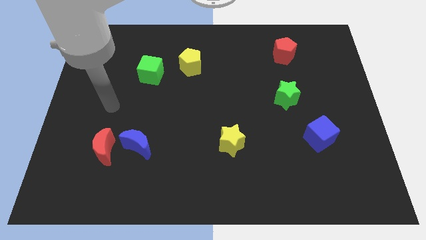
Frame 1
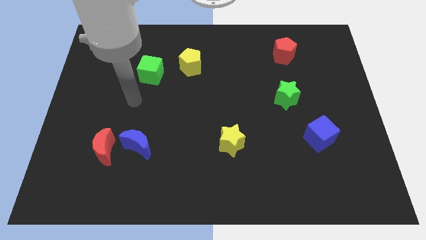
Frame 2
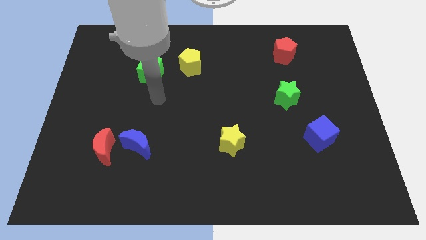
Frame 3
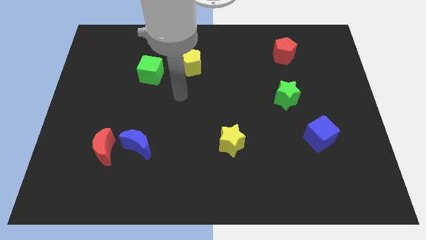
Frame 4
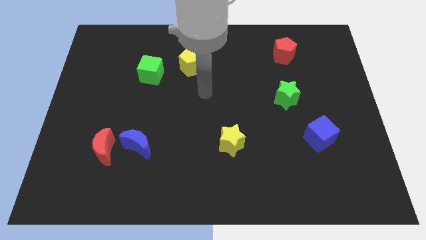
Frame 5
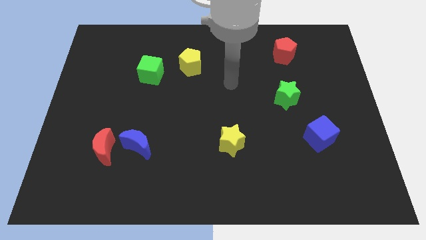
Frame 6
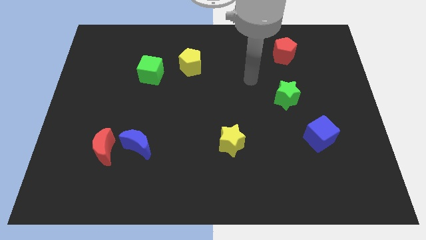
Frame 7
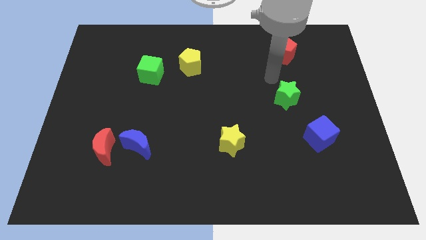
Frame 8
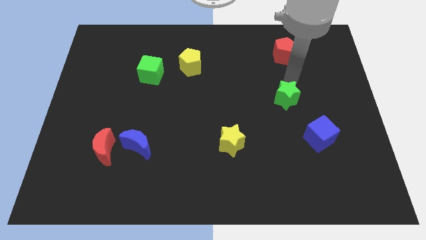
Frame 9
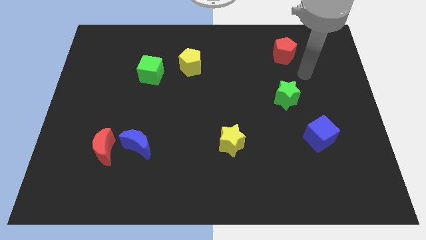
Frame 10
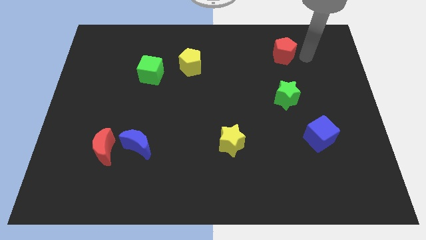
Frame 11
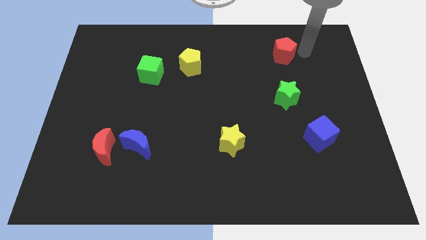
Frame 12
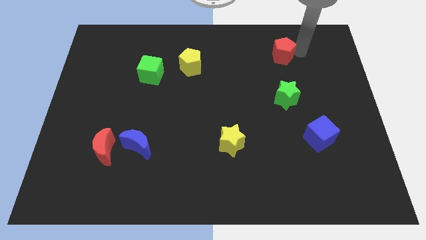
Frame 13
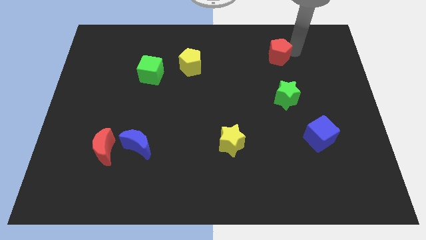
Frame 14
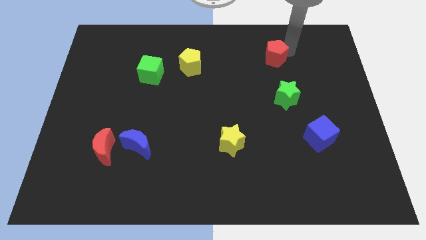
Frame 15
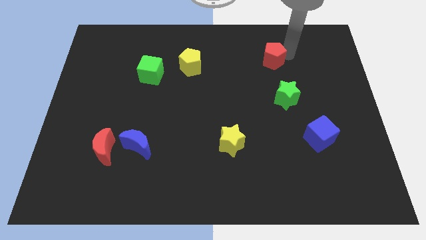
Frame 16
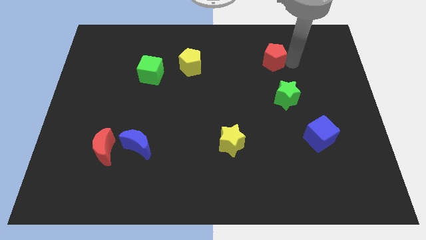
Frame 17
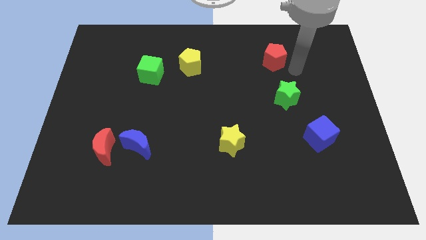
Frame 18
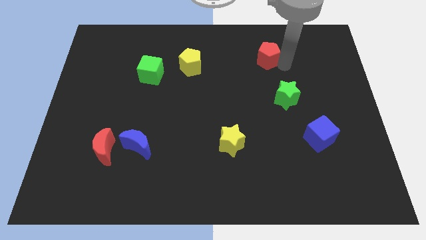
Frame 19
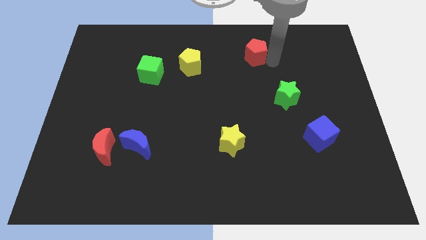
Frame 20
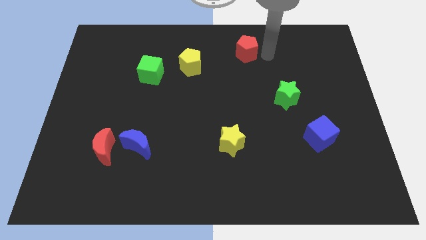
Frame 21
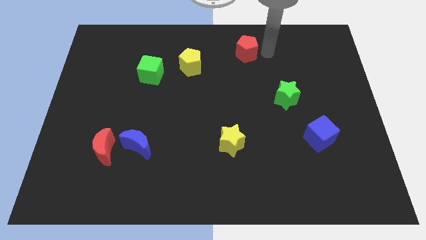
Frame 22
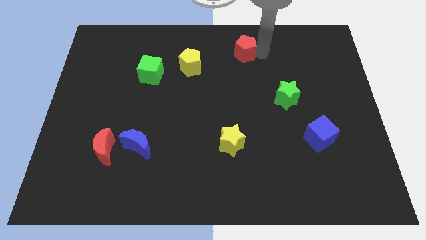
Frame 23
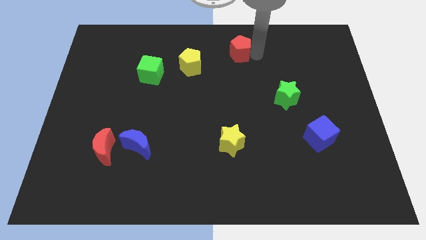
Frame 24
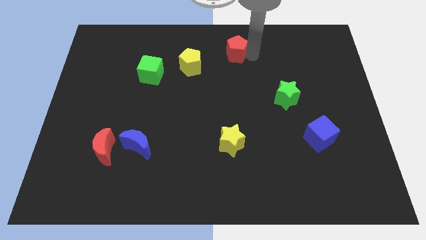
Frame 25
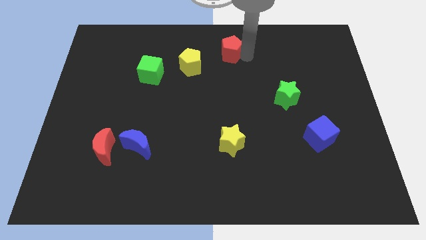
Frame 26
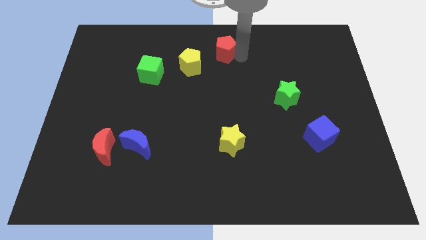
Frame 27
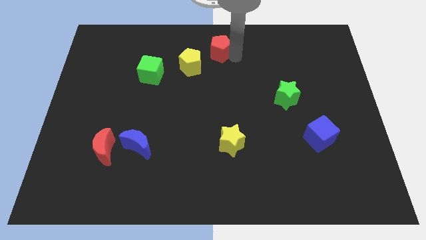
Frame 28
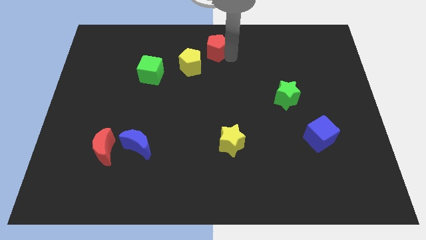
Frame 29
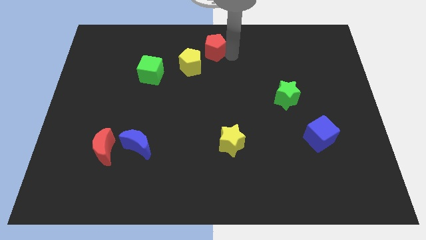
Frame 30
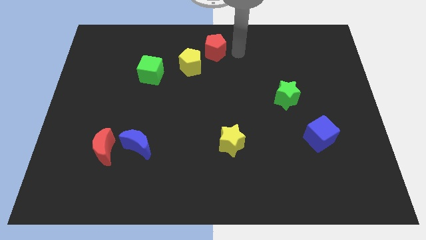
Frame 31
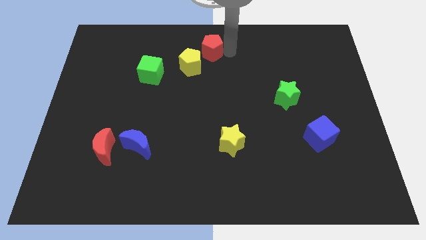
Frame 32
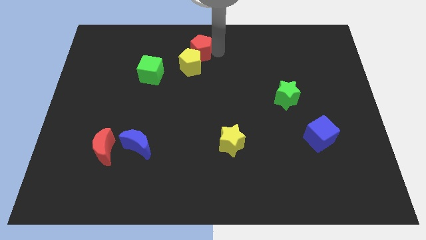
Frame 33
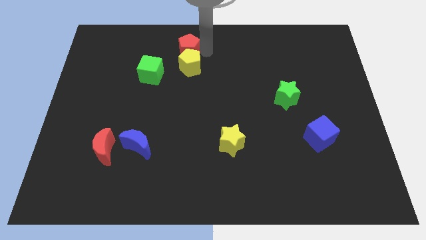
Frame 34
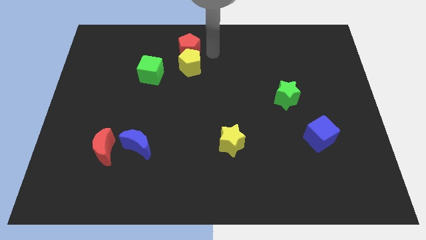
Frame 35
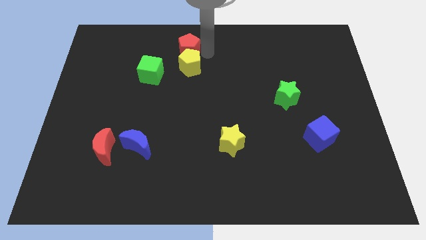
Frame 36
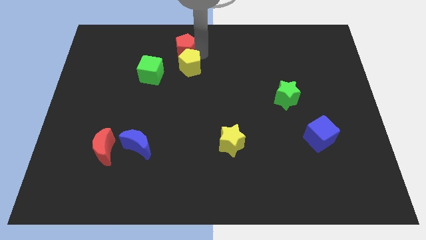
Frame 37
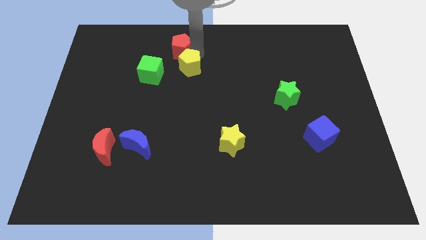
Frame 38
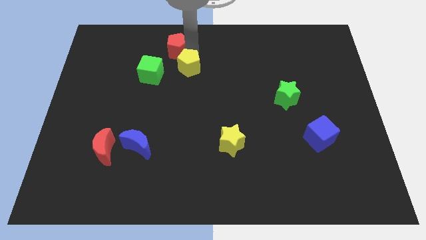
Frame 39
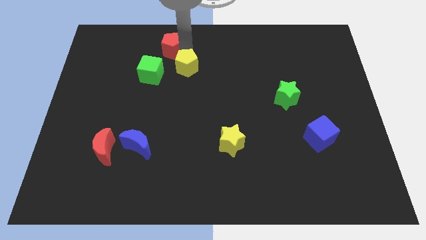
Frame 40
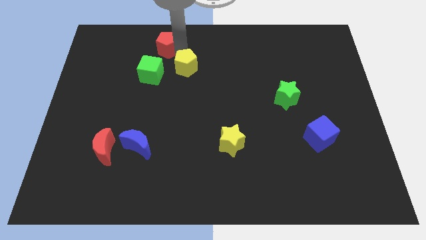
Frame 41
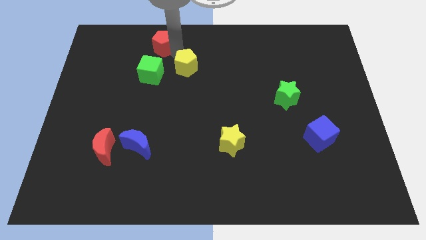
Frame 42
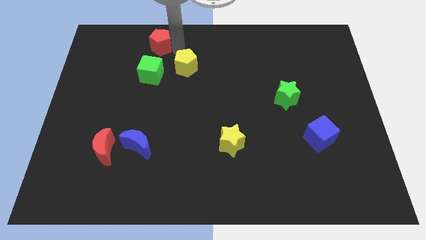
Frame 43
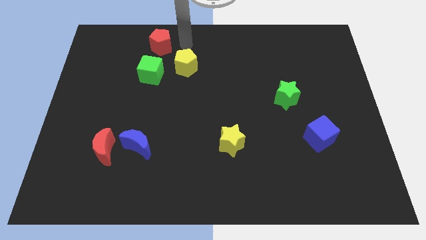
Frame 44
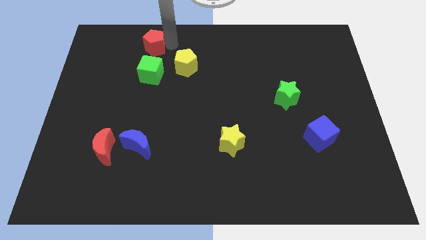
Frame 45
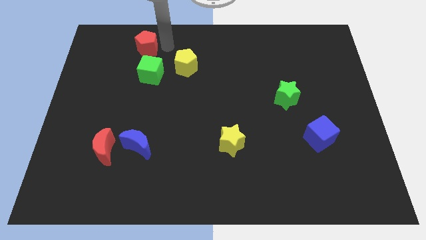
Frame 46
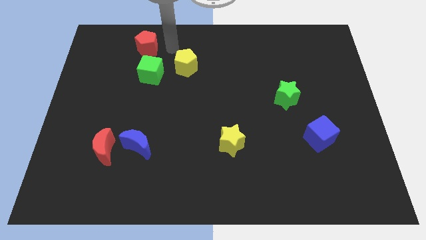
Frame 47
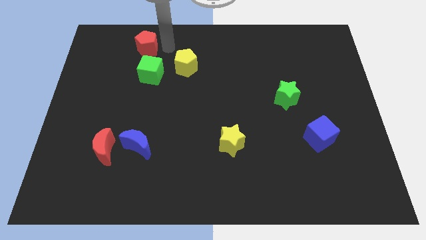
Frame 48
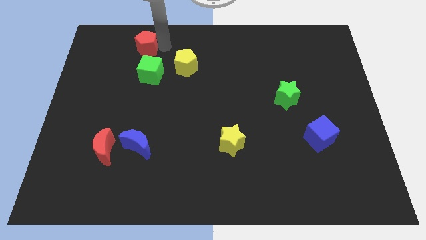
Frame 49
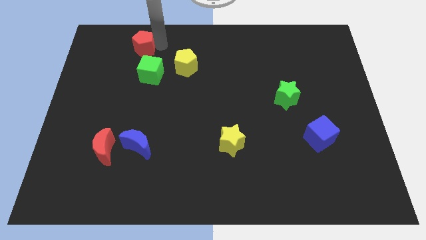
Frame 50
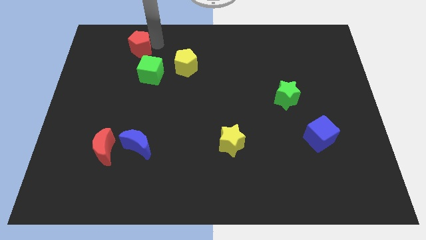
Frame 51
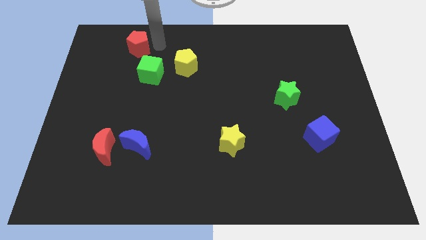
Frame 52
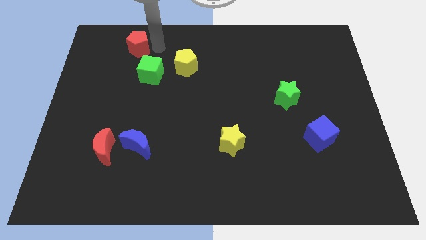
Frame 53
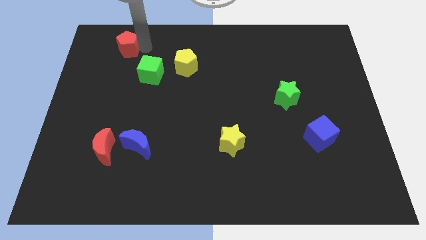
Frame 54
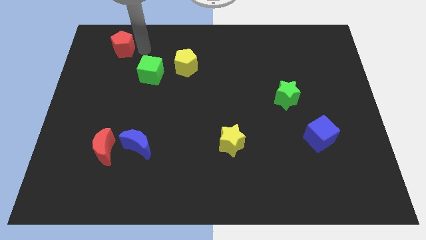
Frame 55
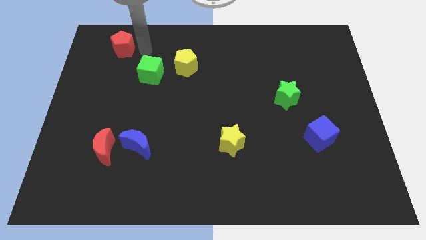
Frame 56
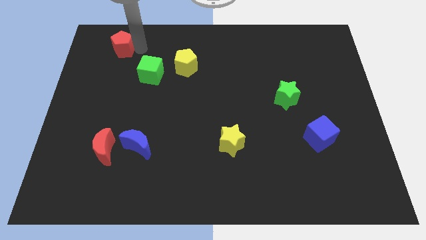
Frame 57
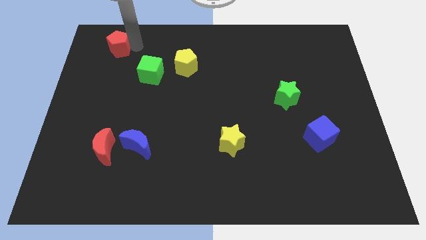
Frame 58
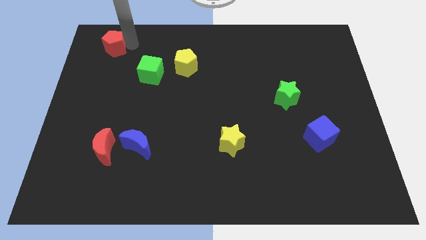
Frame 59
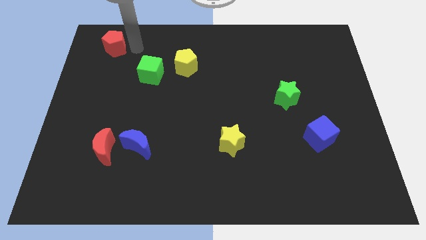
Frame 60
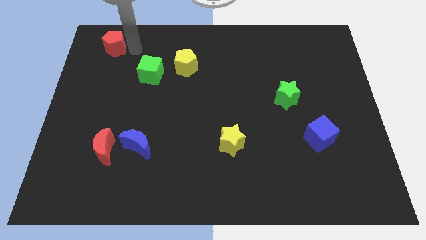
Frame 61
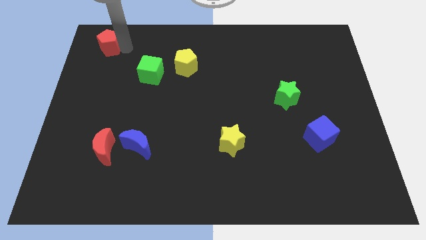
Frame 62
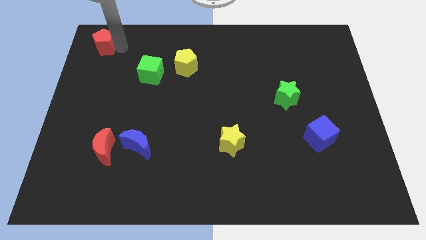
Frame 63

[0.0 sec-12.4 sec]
put the red pentagon to the top left of the board

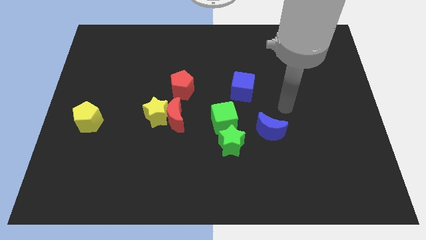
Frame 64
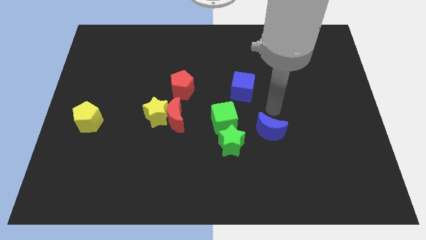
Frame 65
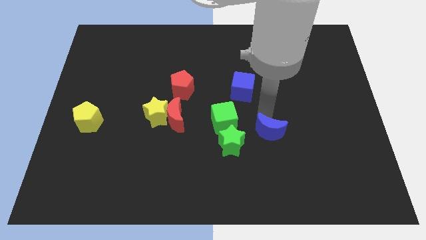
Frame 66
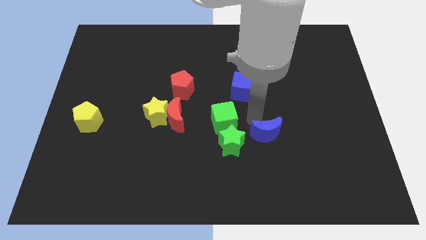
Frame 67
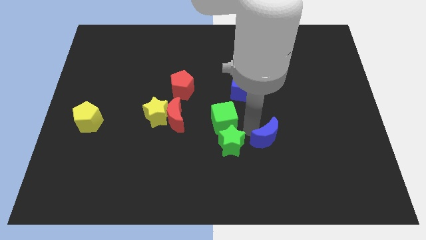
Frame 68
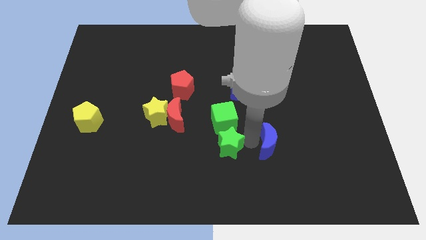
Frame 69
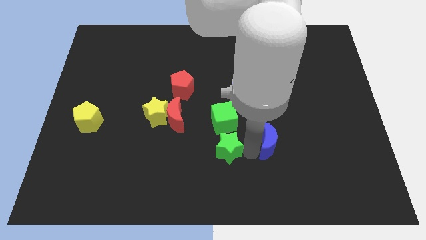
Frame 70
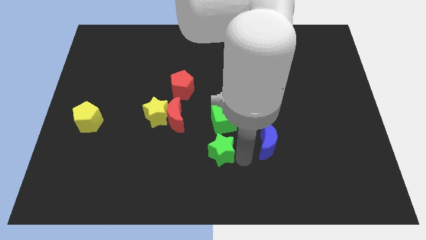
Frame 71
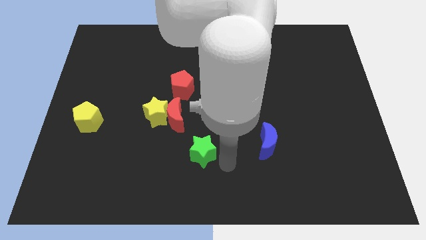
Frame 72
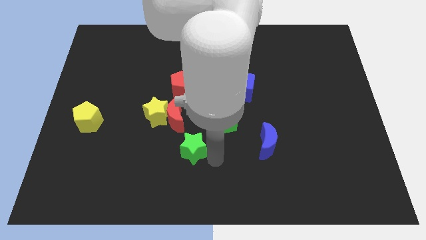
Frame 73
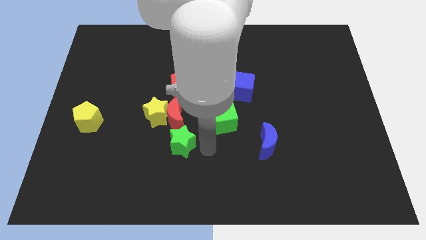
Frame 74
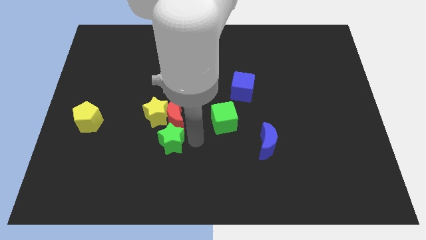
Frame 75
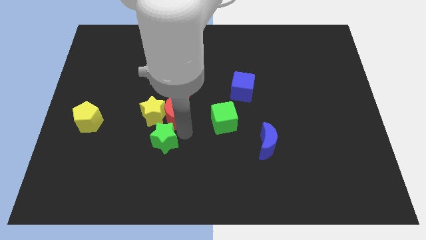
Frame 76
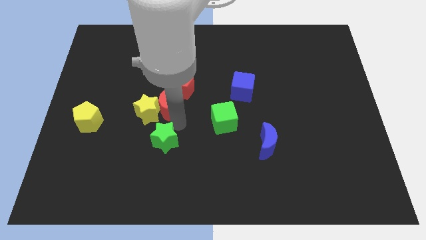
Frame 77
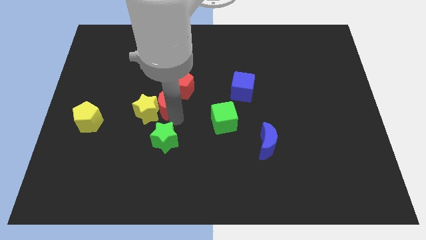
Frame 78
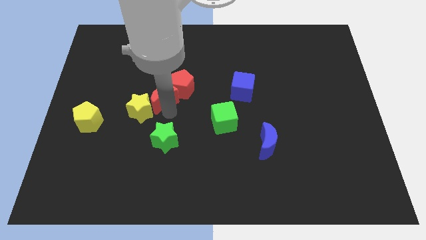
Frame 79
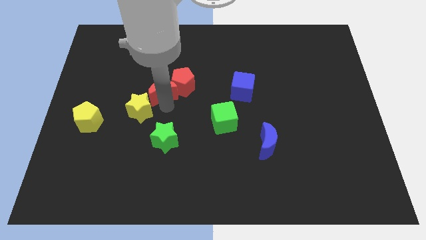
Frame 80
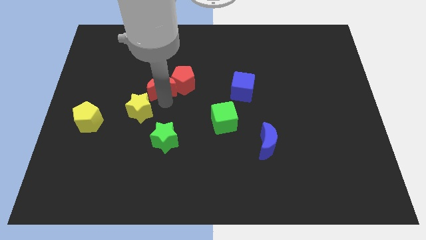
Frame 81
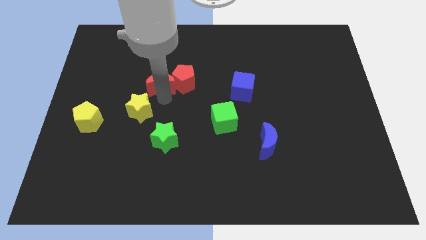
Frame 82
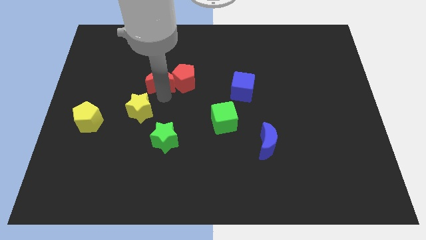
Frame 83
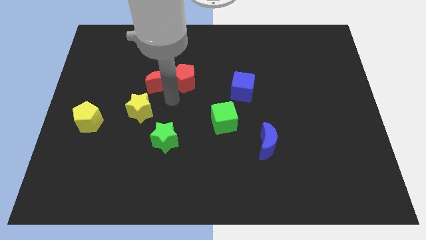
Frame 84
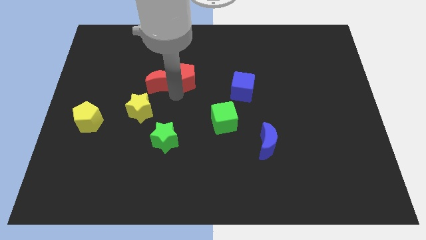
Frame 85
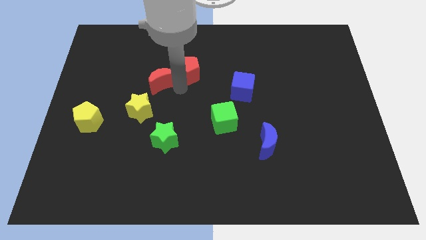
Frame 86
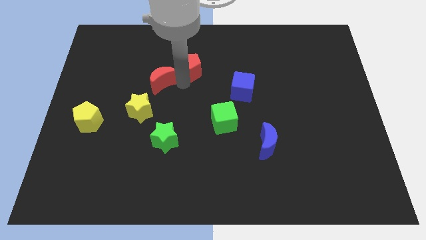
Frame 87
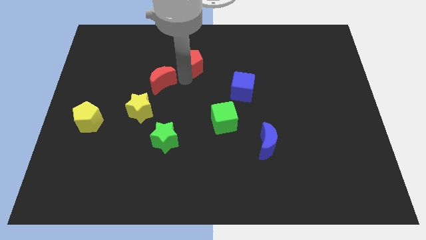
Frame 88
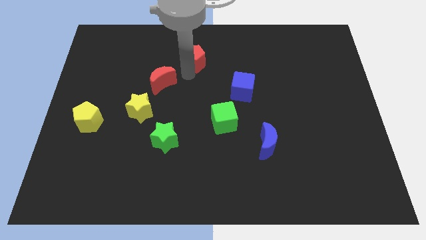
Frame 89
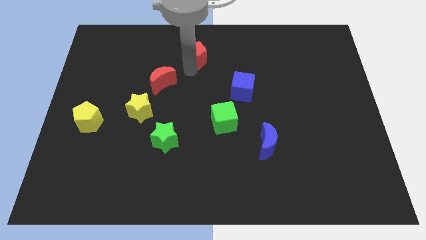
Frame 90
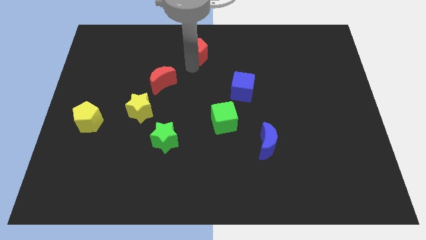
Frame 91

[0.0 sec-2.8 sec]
put the red pentagon to the top
